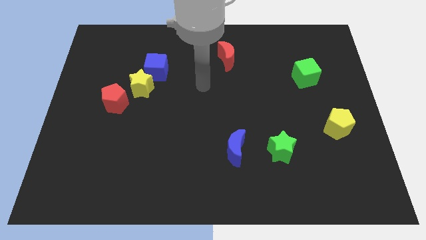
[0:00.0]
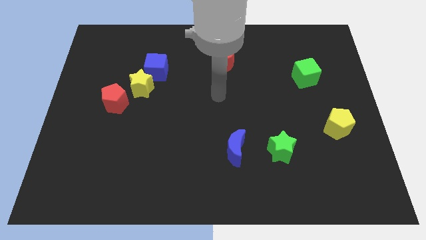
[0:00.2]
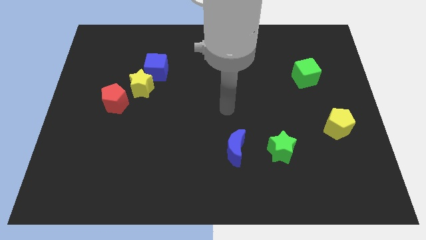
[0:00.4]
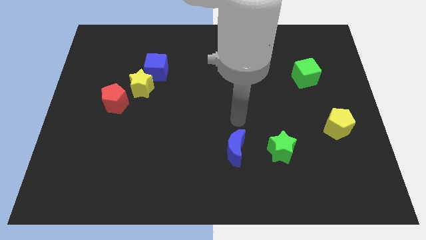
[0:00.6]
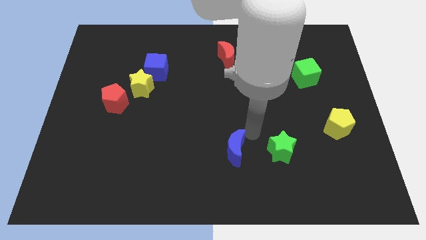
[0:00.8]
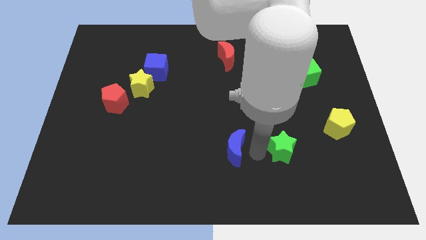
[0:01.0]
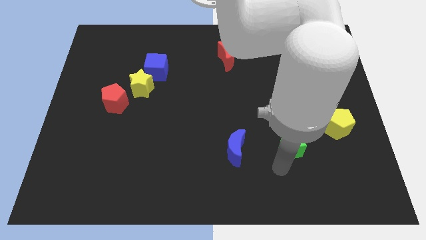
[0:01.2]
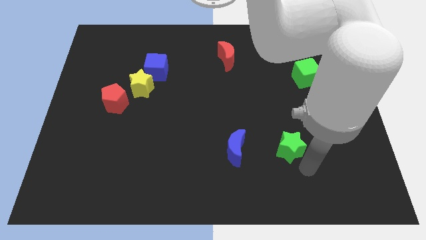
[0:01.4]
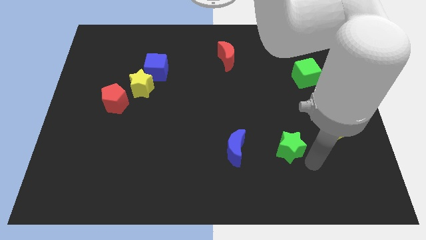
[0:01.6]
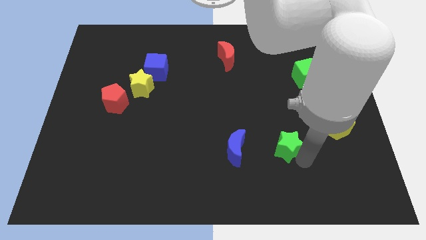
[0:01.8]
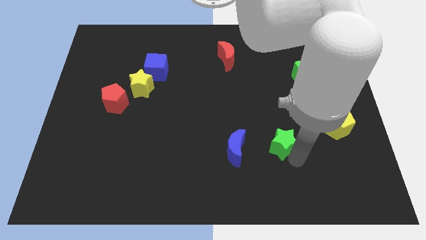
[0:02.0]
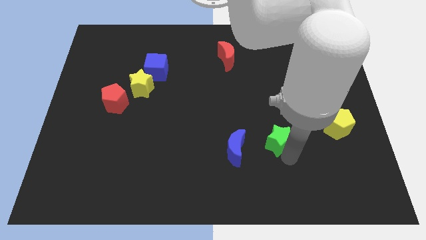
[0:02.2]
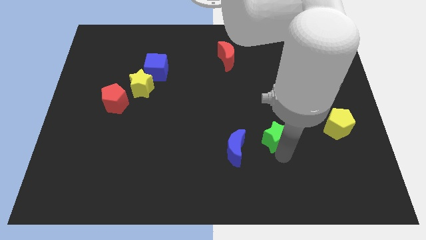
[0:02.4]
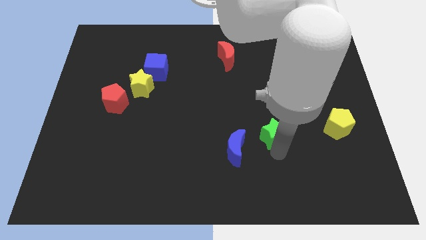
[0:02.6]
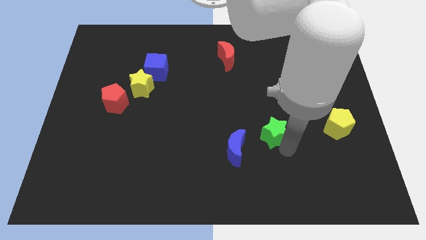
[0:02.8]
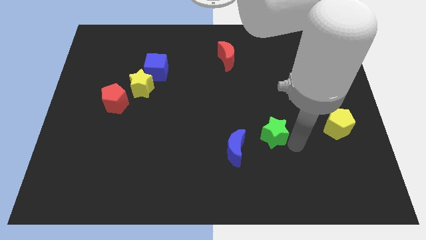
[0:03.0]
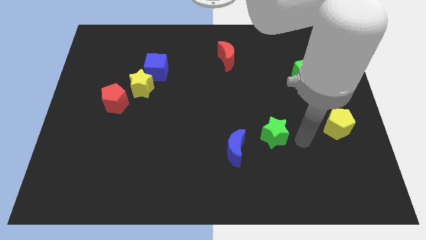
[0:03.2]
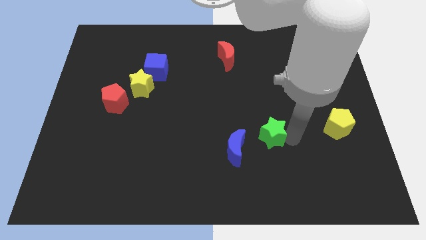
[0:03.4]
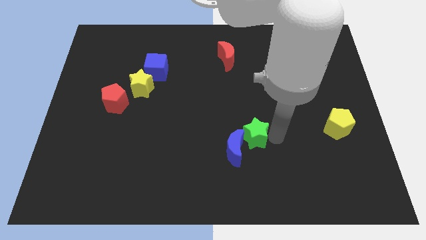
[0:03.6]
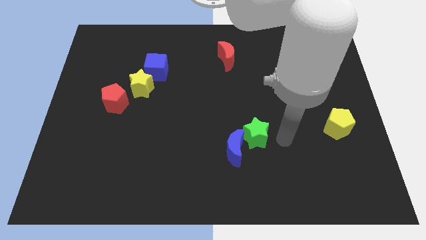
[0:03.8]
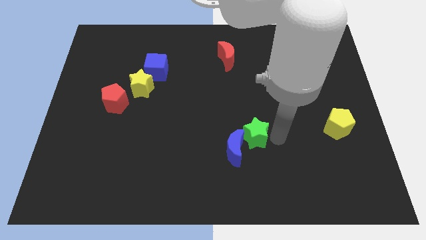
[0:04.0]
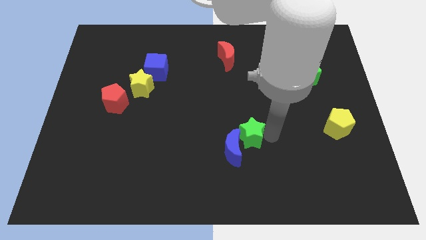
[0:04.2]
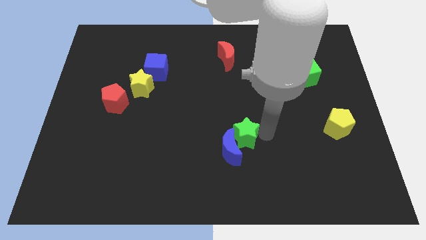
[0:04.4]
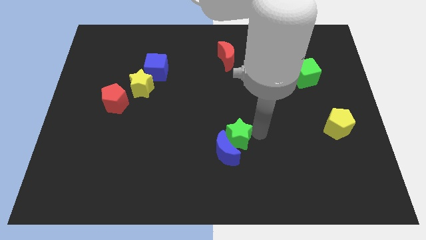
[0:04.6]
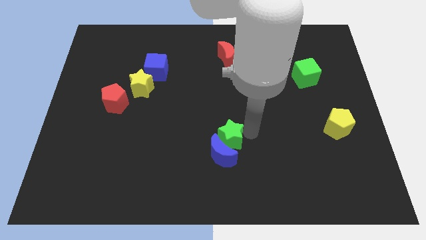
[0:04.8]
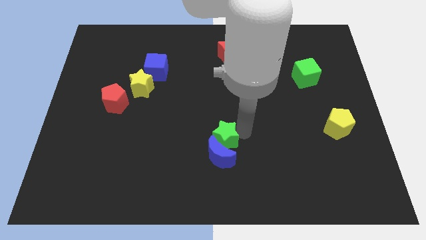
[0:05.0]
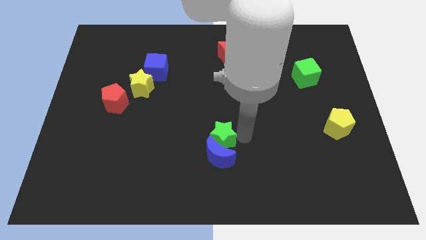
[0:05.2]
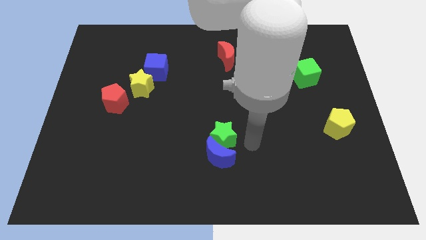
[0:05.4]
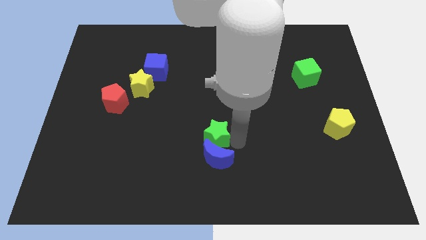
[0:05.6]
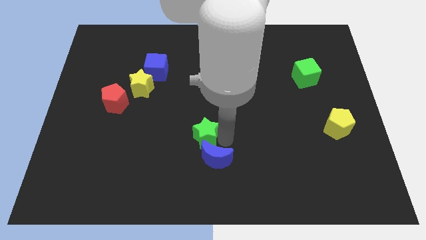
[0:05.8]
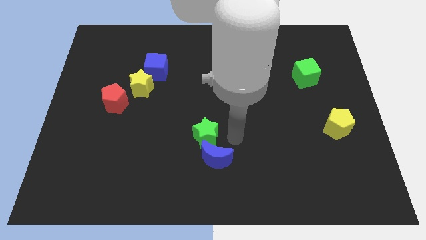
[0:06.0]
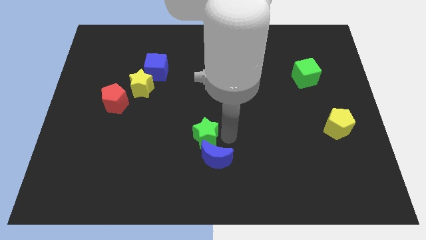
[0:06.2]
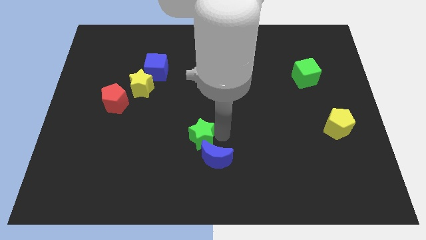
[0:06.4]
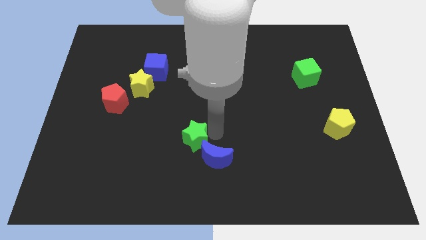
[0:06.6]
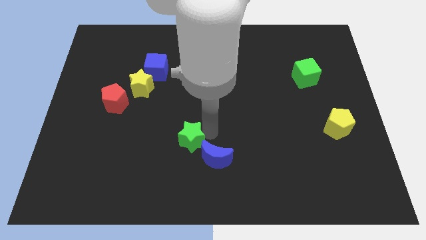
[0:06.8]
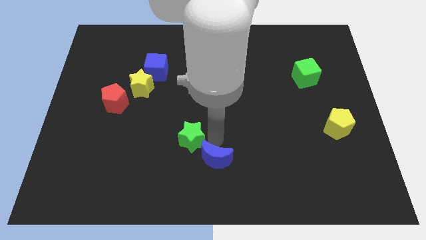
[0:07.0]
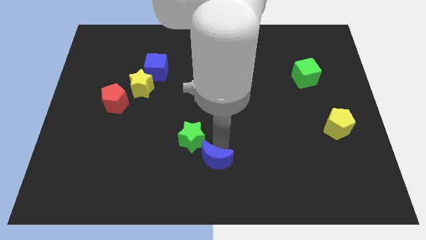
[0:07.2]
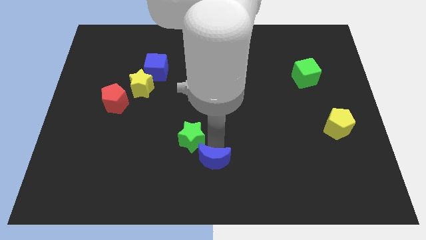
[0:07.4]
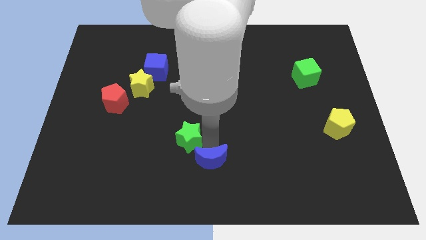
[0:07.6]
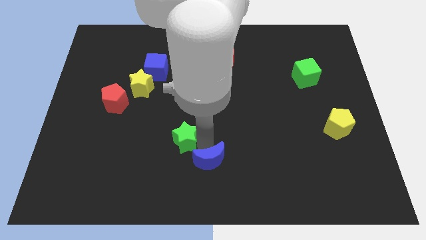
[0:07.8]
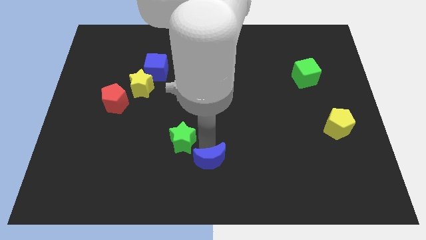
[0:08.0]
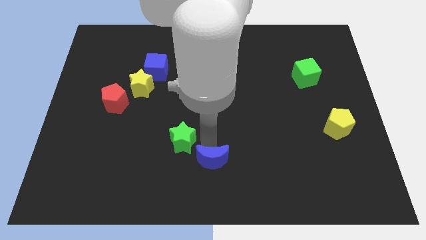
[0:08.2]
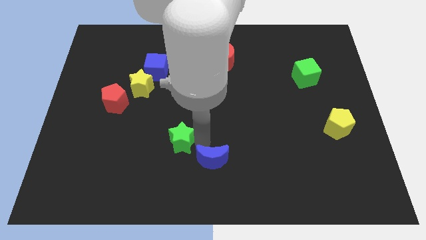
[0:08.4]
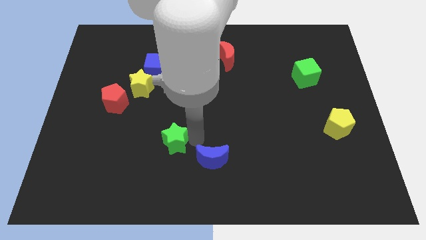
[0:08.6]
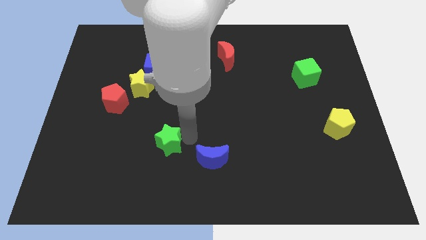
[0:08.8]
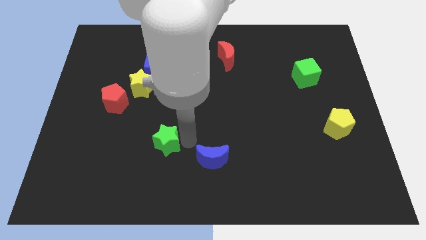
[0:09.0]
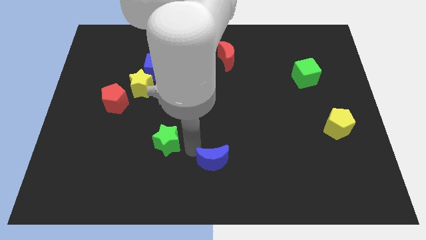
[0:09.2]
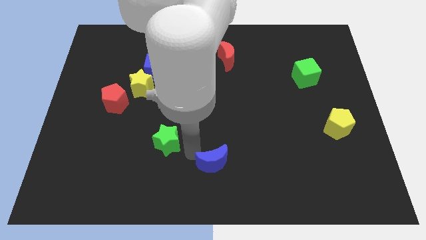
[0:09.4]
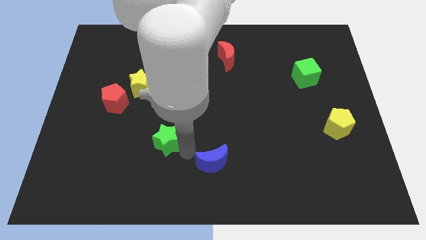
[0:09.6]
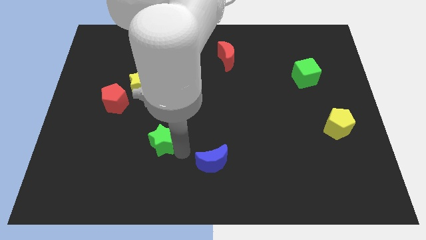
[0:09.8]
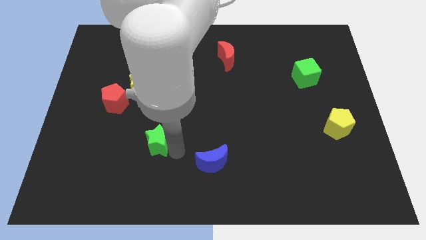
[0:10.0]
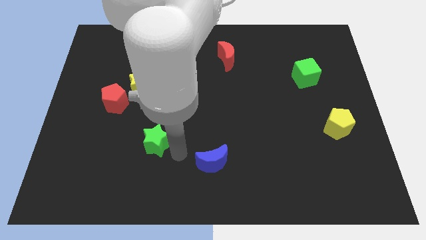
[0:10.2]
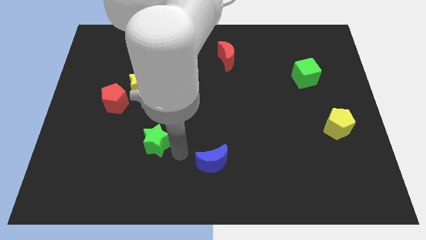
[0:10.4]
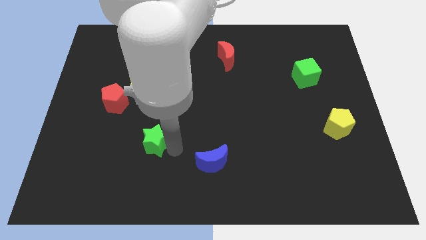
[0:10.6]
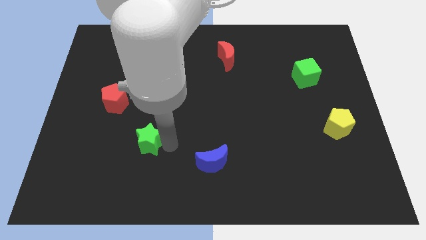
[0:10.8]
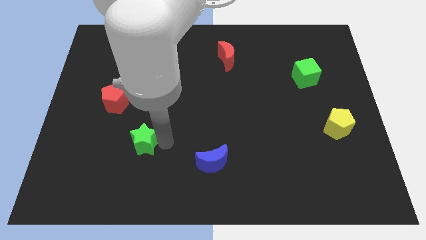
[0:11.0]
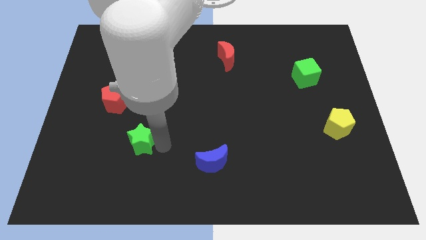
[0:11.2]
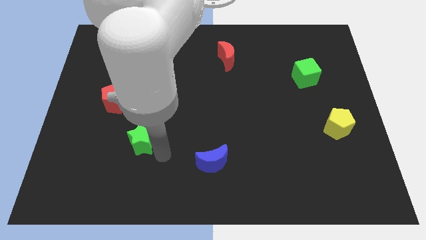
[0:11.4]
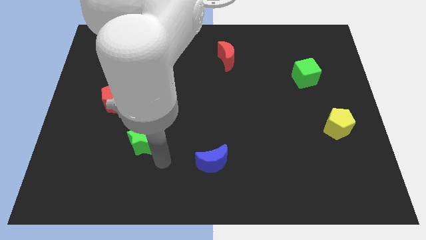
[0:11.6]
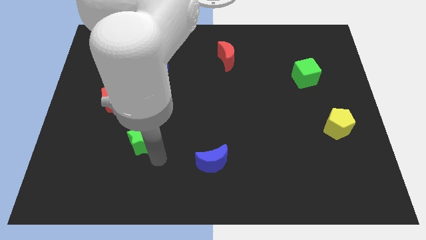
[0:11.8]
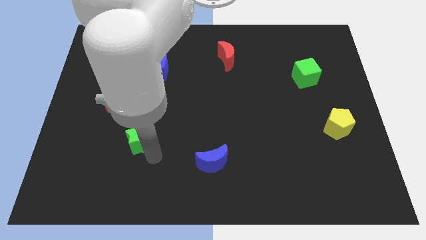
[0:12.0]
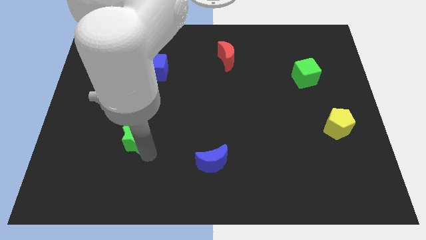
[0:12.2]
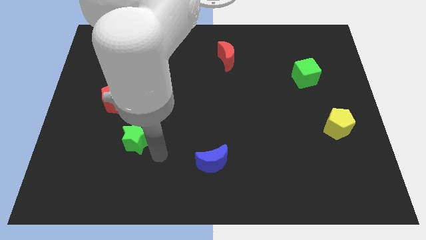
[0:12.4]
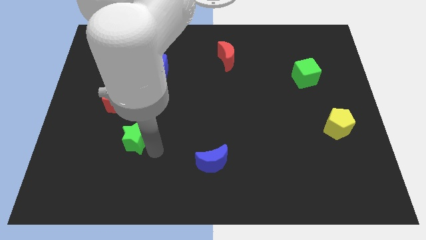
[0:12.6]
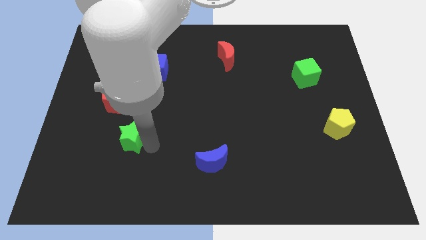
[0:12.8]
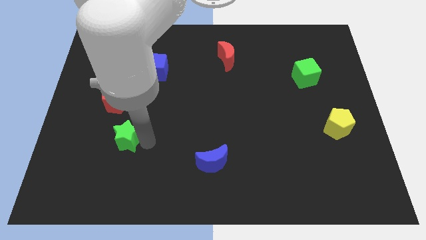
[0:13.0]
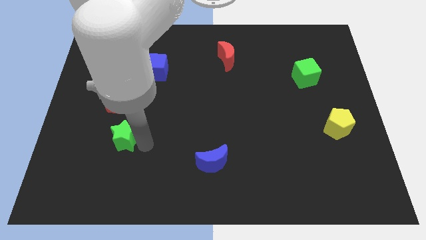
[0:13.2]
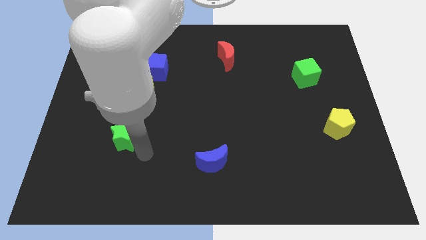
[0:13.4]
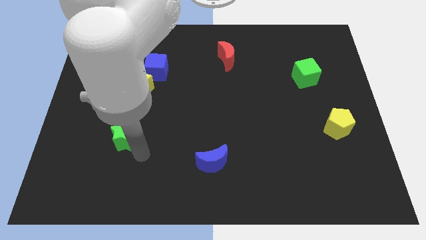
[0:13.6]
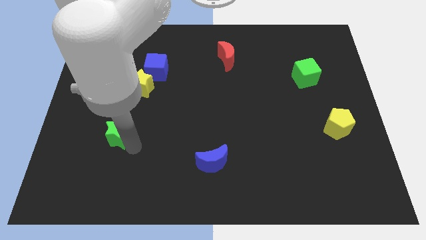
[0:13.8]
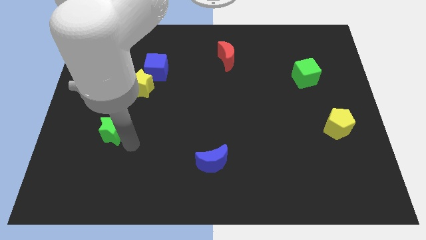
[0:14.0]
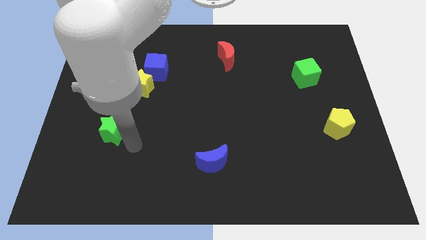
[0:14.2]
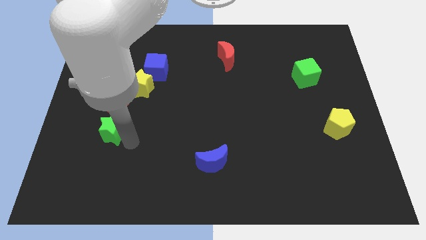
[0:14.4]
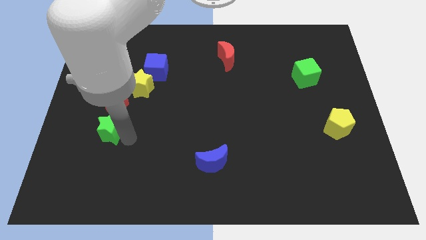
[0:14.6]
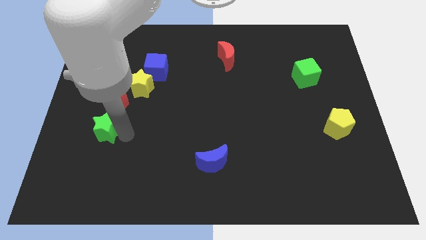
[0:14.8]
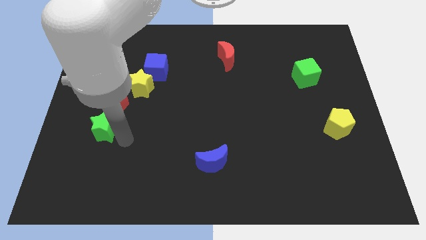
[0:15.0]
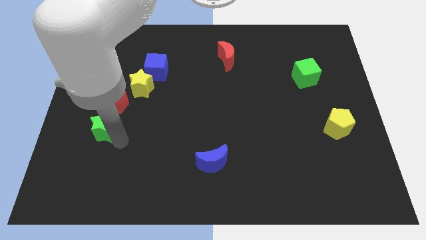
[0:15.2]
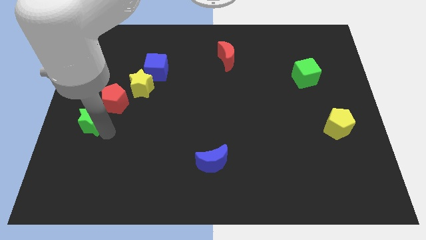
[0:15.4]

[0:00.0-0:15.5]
push the green star to the center left
